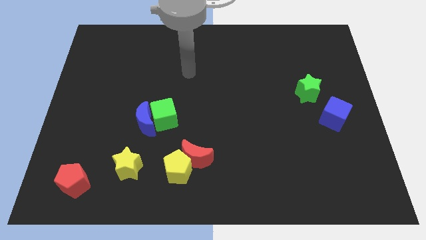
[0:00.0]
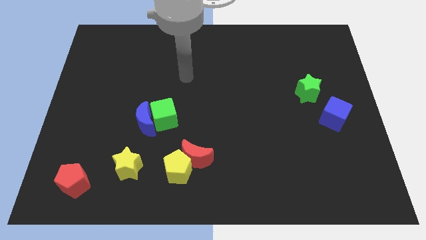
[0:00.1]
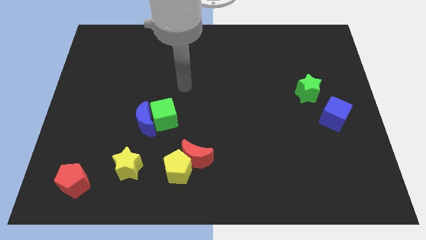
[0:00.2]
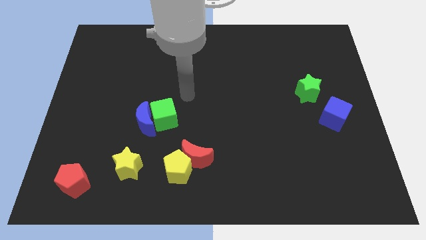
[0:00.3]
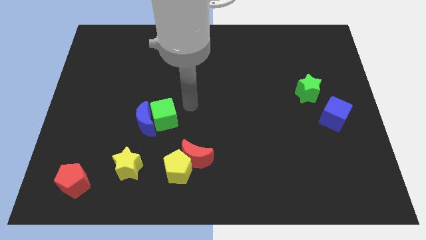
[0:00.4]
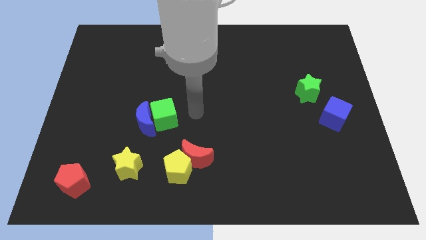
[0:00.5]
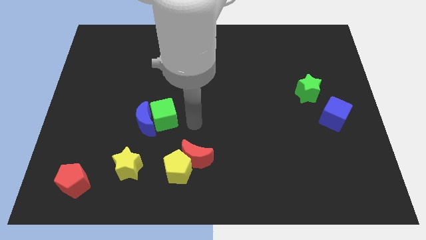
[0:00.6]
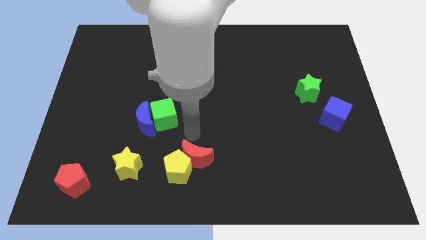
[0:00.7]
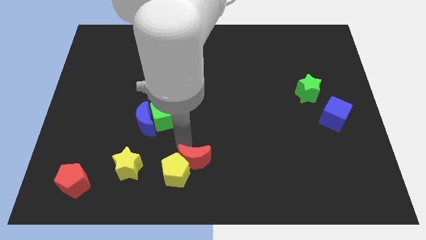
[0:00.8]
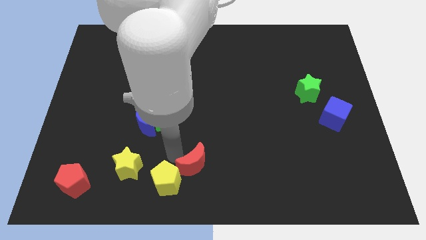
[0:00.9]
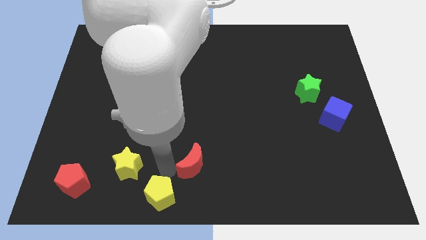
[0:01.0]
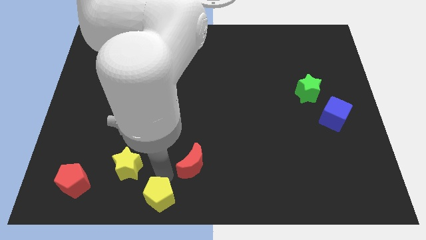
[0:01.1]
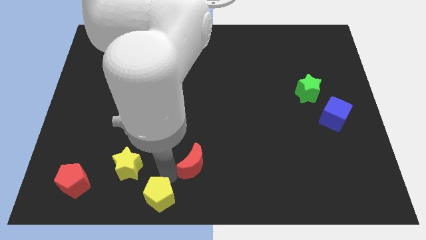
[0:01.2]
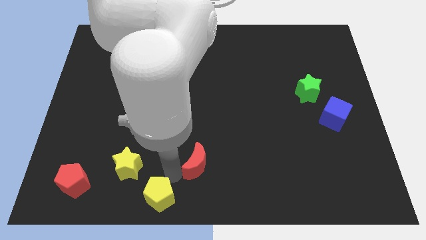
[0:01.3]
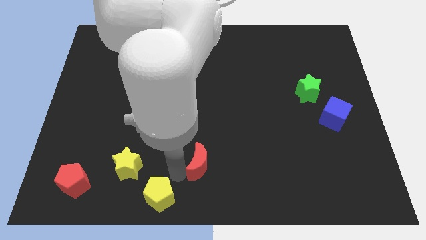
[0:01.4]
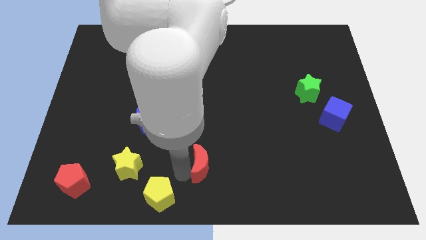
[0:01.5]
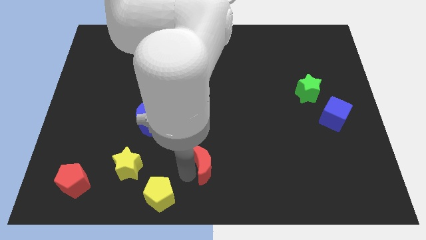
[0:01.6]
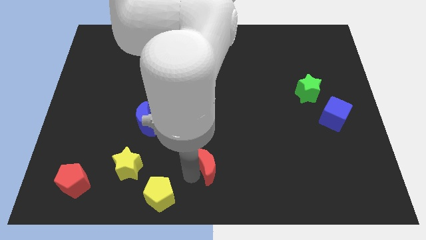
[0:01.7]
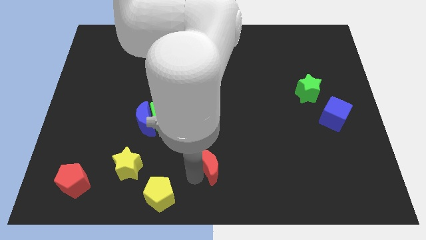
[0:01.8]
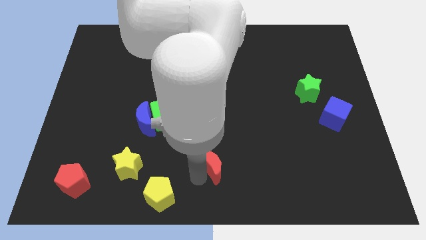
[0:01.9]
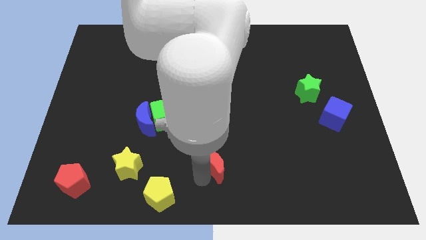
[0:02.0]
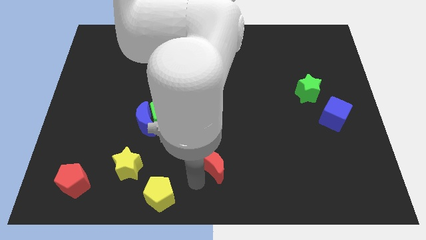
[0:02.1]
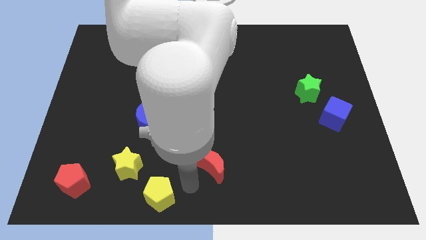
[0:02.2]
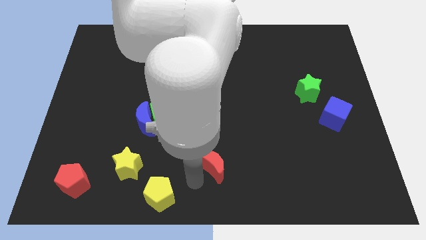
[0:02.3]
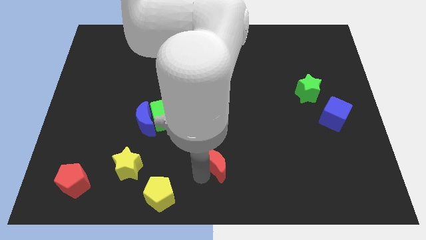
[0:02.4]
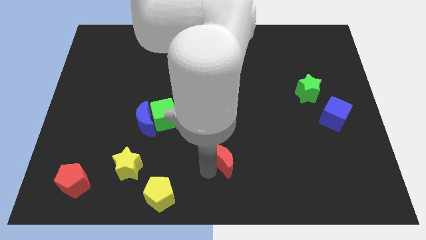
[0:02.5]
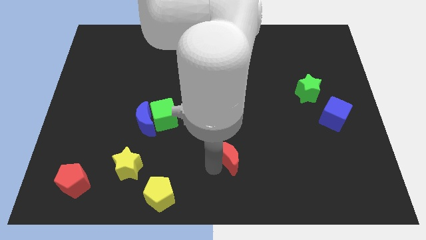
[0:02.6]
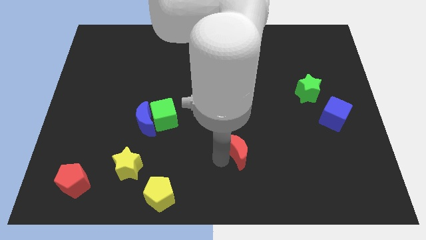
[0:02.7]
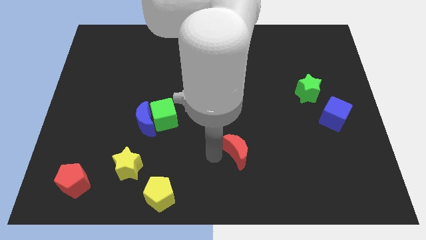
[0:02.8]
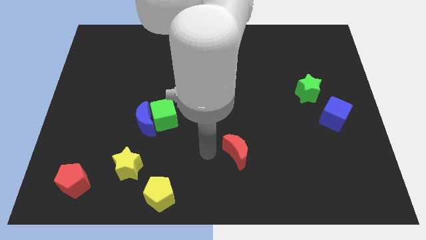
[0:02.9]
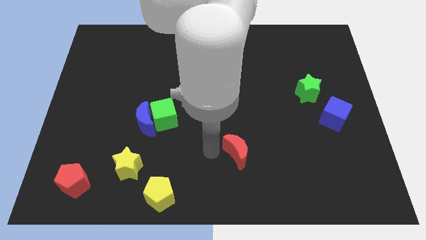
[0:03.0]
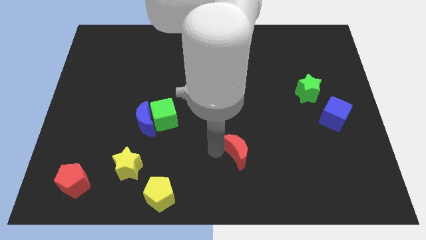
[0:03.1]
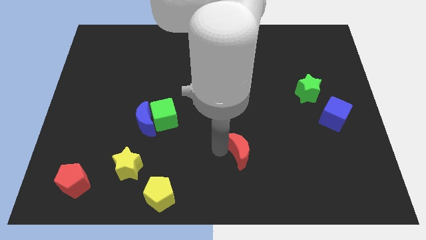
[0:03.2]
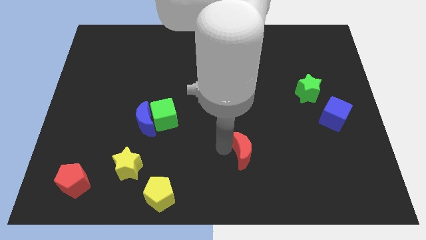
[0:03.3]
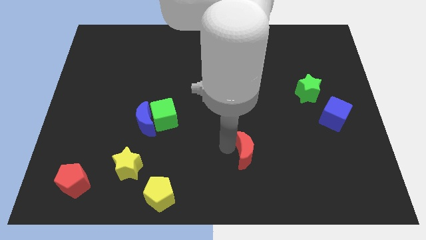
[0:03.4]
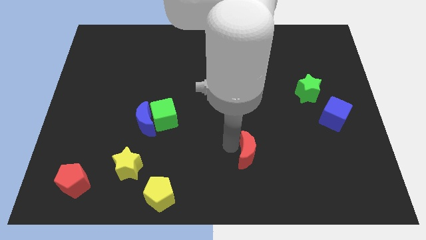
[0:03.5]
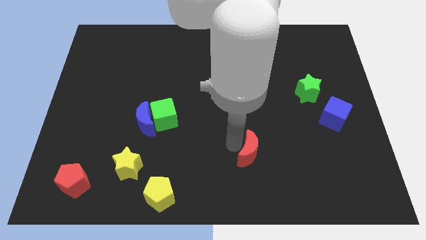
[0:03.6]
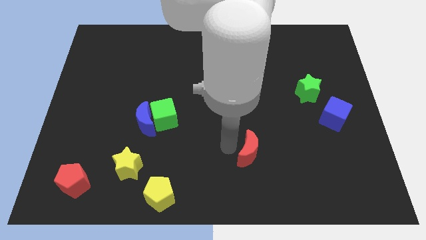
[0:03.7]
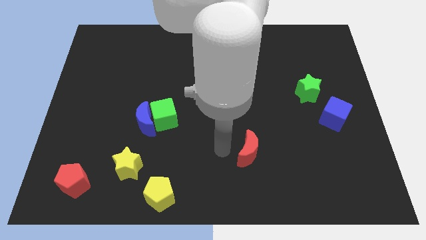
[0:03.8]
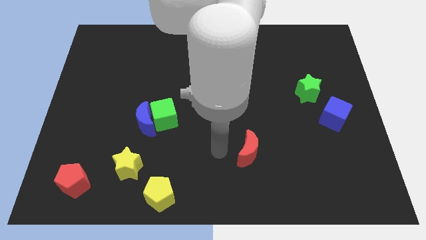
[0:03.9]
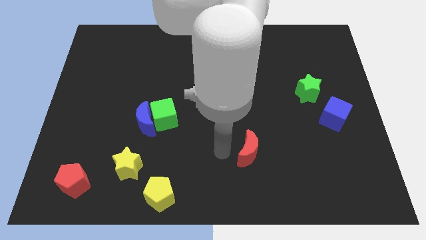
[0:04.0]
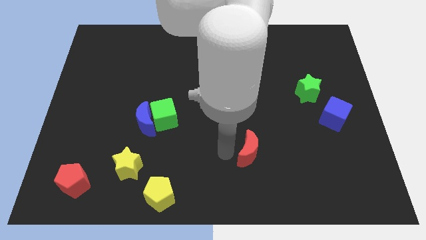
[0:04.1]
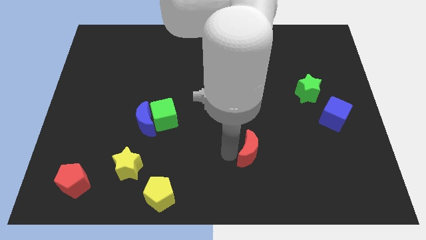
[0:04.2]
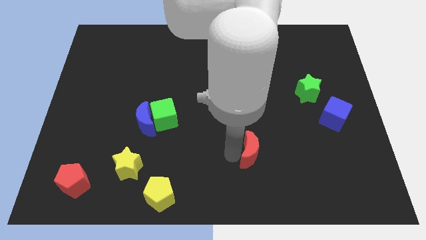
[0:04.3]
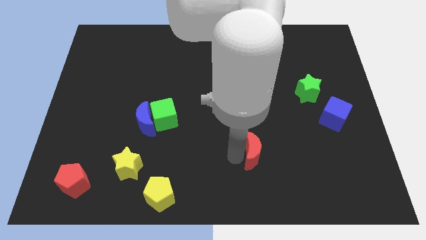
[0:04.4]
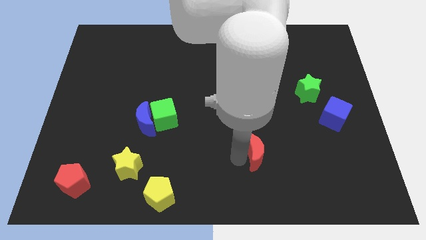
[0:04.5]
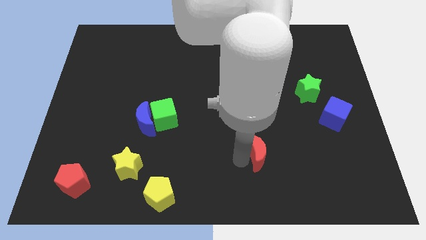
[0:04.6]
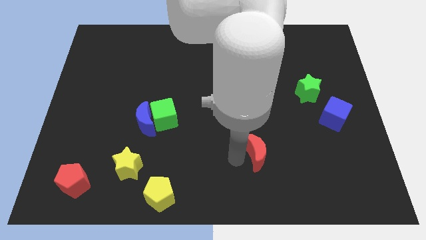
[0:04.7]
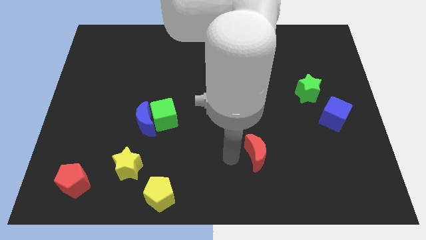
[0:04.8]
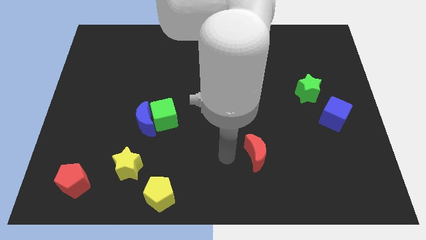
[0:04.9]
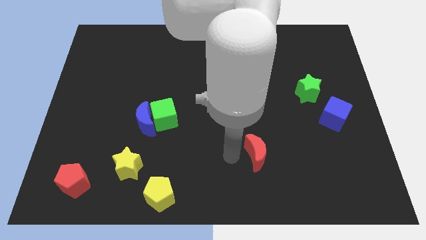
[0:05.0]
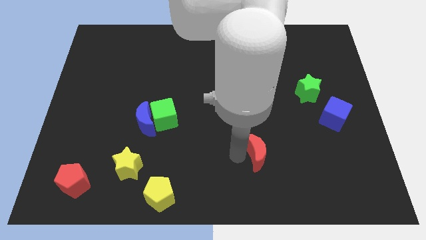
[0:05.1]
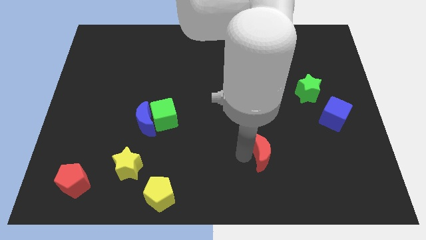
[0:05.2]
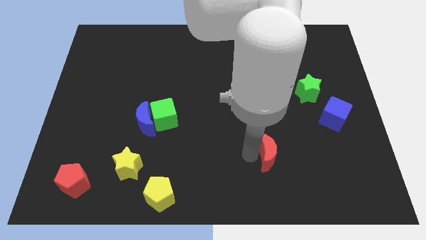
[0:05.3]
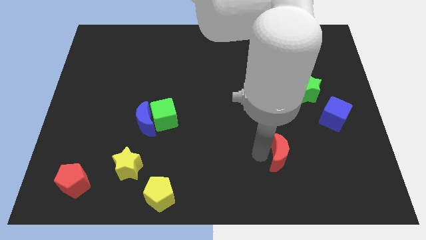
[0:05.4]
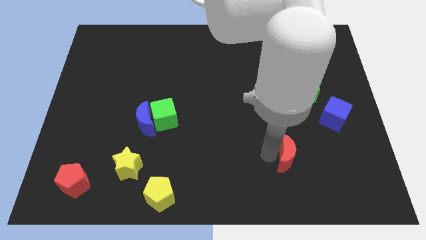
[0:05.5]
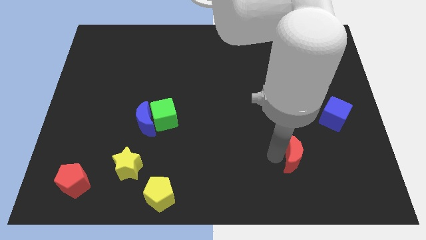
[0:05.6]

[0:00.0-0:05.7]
slide the red moon to the right

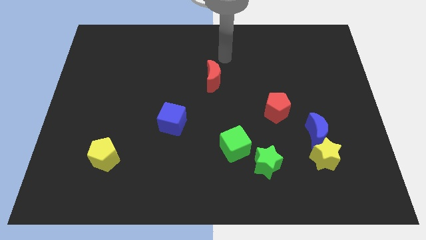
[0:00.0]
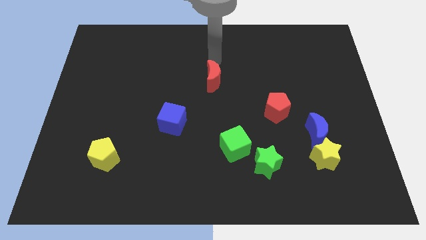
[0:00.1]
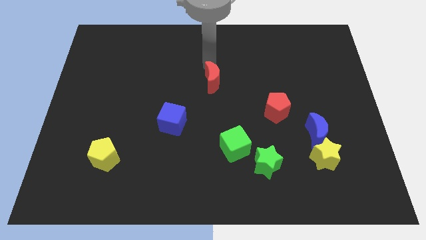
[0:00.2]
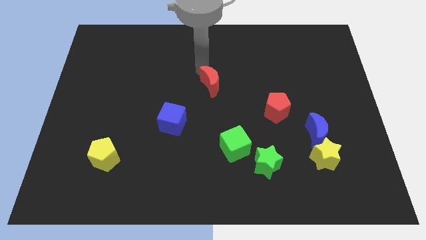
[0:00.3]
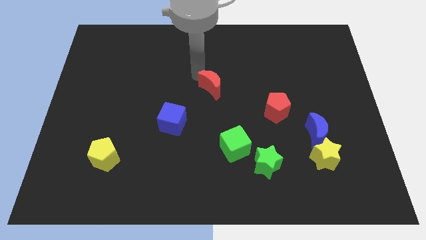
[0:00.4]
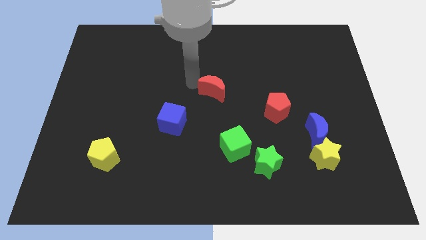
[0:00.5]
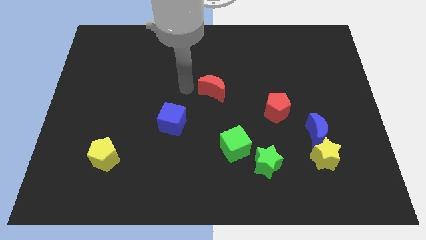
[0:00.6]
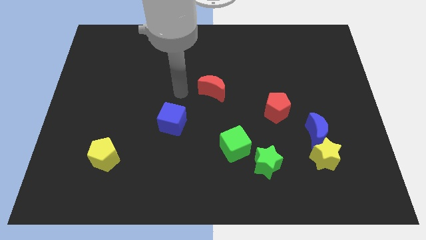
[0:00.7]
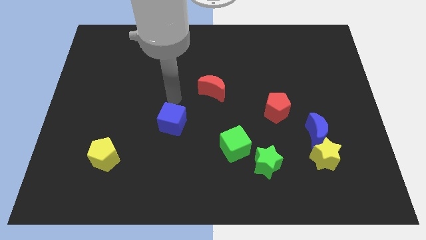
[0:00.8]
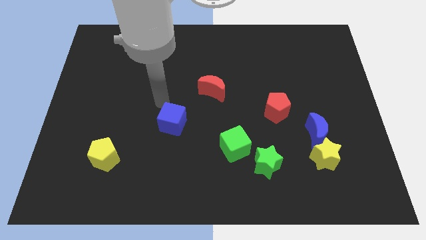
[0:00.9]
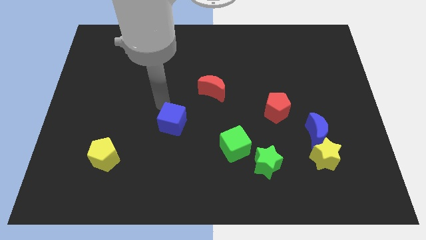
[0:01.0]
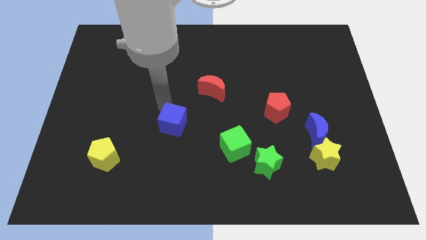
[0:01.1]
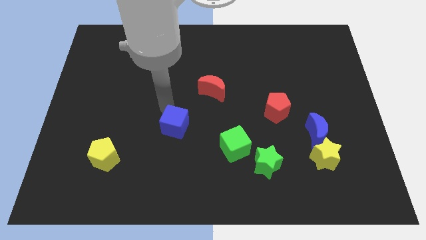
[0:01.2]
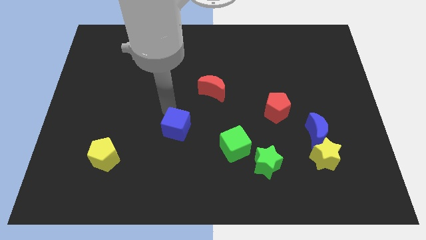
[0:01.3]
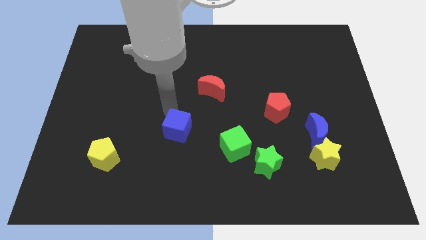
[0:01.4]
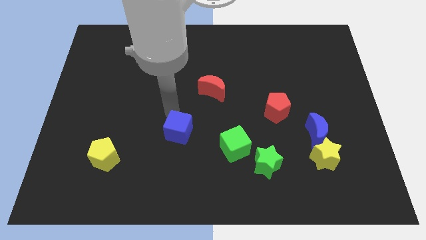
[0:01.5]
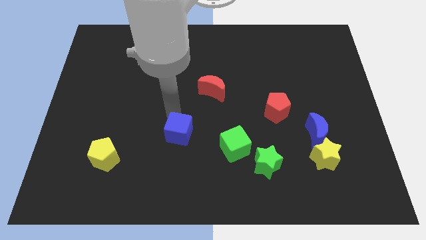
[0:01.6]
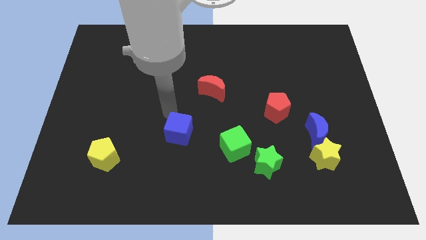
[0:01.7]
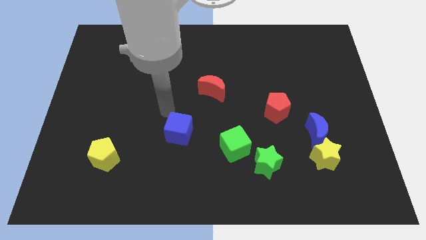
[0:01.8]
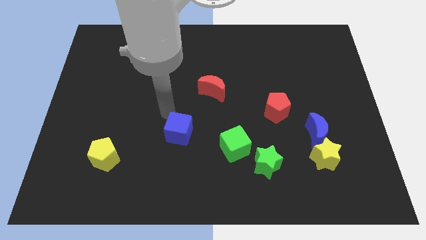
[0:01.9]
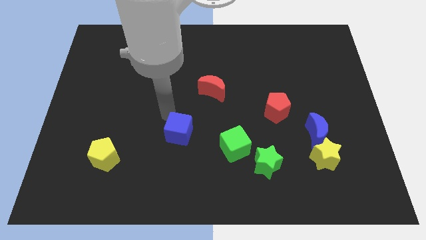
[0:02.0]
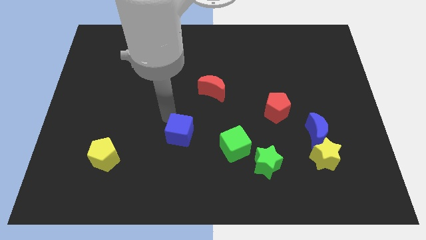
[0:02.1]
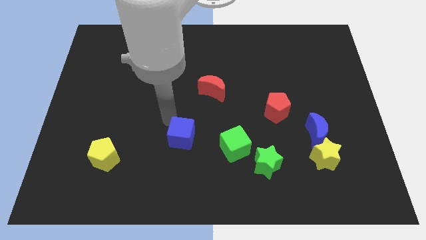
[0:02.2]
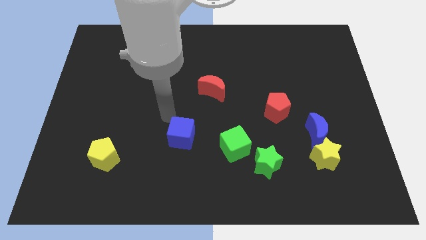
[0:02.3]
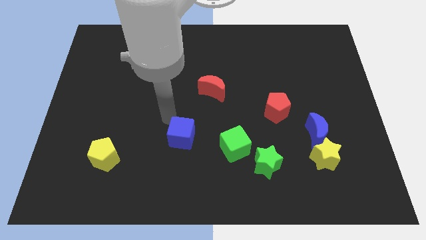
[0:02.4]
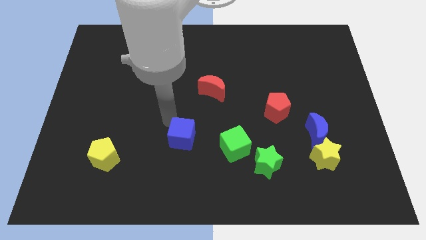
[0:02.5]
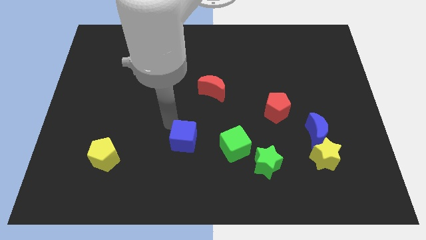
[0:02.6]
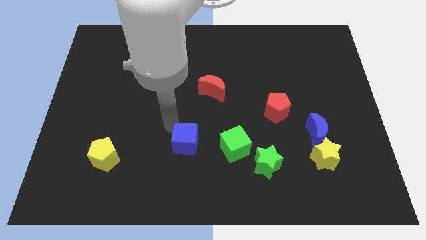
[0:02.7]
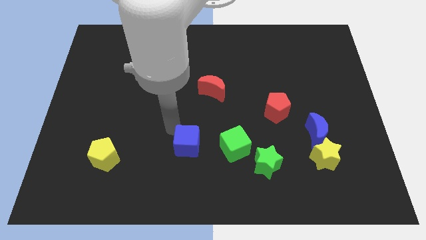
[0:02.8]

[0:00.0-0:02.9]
move the blue cube a little down and right
